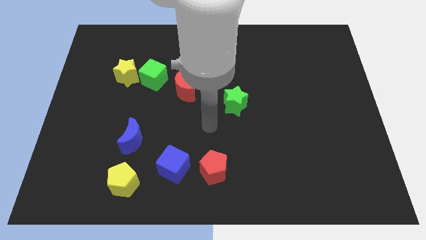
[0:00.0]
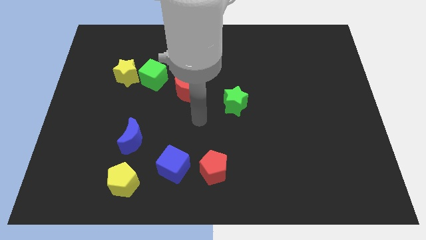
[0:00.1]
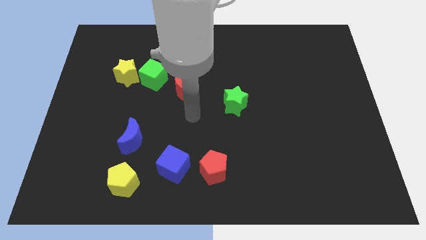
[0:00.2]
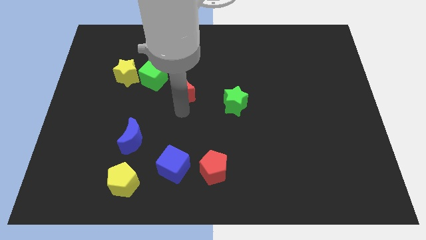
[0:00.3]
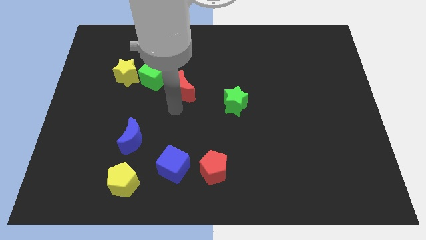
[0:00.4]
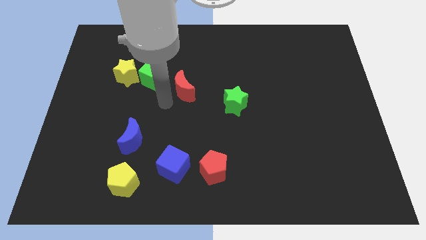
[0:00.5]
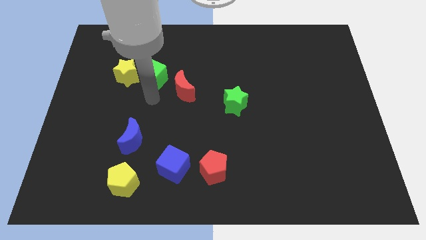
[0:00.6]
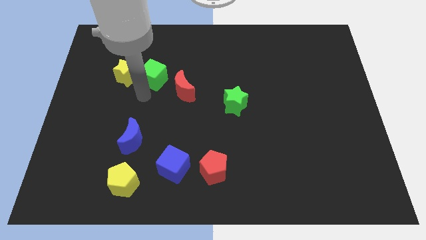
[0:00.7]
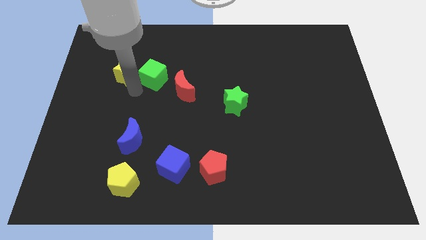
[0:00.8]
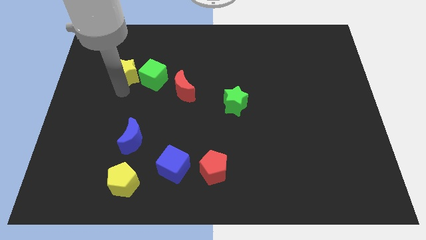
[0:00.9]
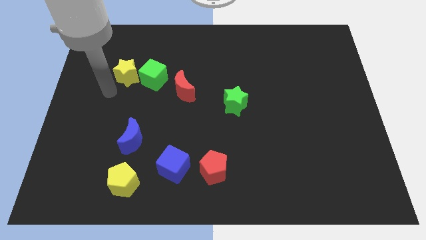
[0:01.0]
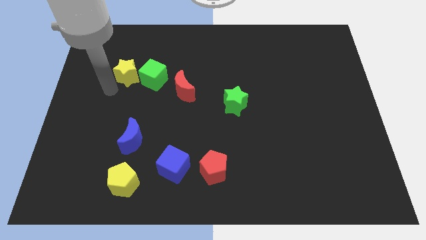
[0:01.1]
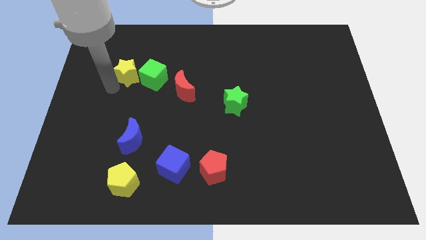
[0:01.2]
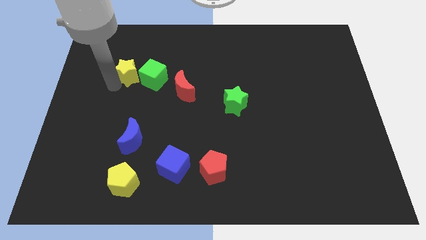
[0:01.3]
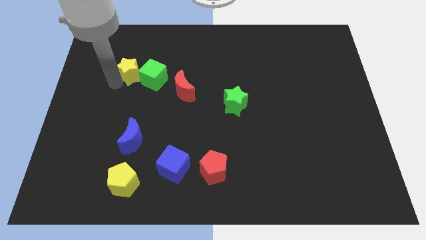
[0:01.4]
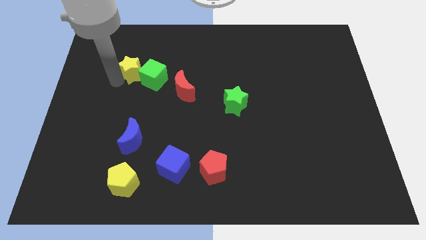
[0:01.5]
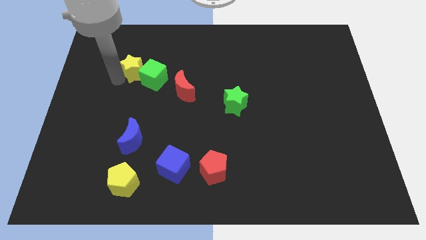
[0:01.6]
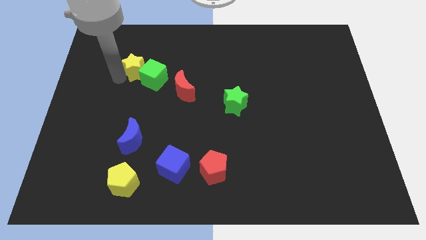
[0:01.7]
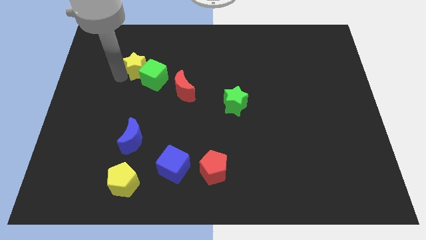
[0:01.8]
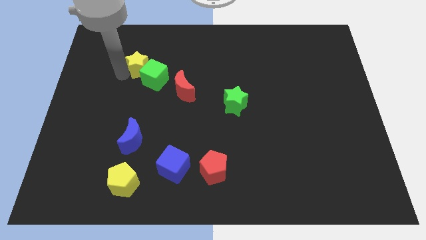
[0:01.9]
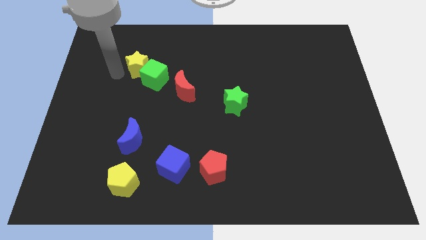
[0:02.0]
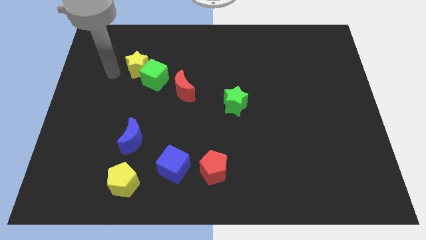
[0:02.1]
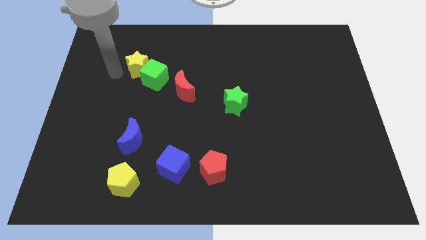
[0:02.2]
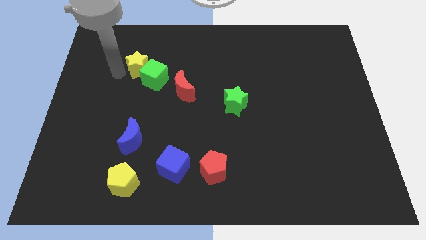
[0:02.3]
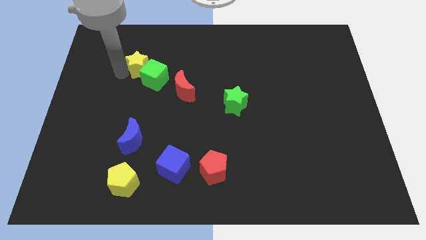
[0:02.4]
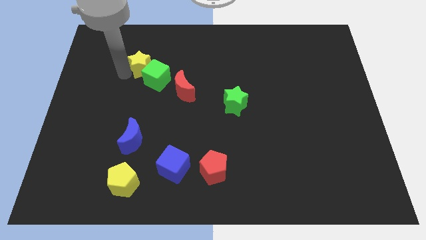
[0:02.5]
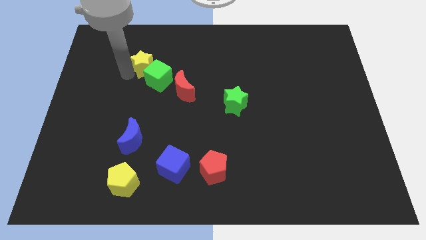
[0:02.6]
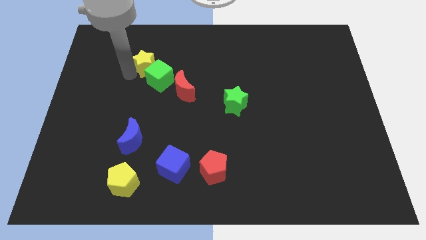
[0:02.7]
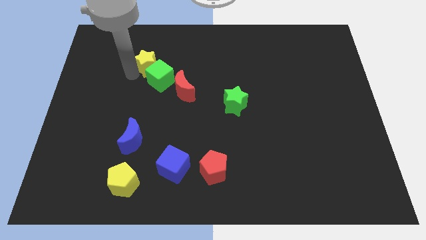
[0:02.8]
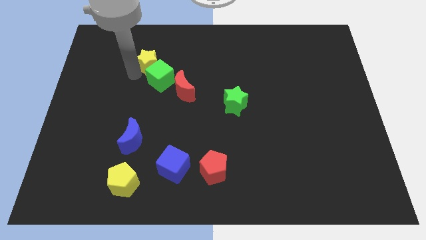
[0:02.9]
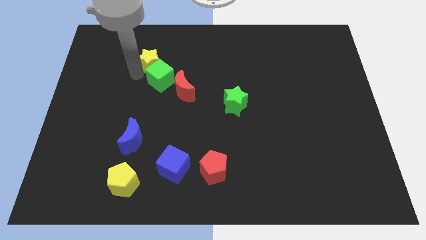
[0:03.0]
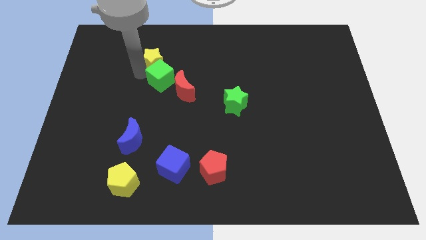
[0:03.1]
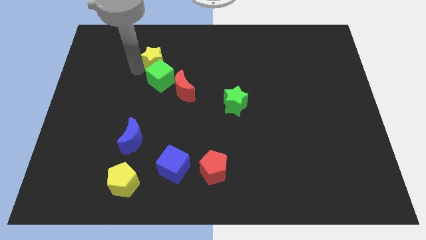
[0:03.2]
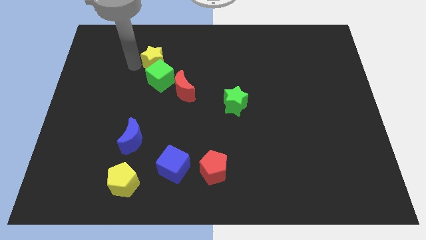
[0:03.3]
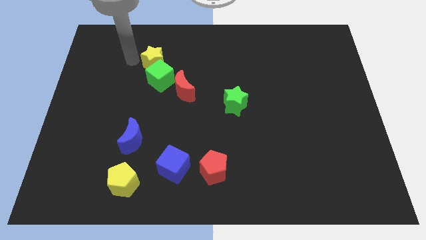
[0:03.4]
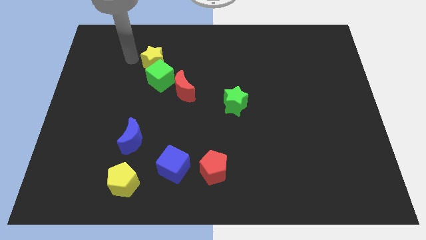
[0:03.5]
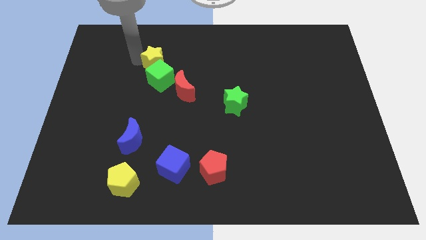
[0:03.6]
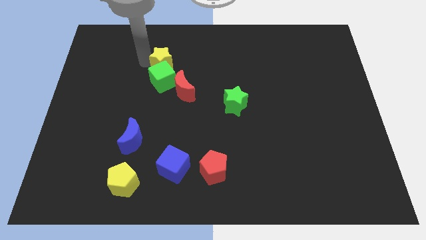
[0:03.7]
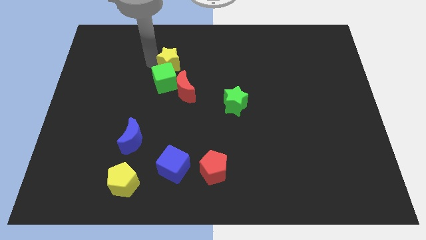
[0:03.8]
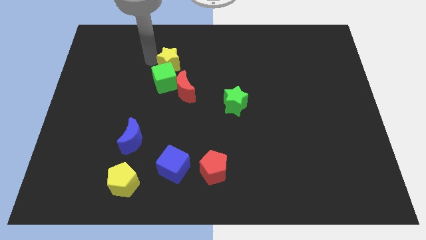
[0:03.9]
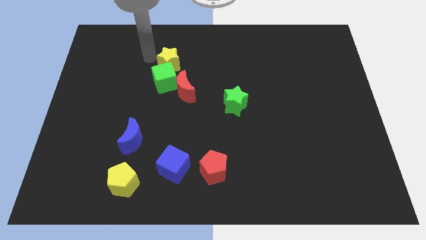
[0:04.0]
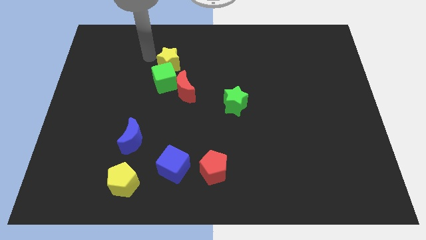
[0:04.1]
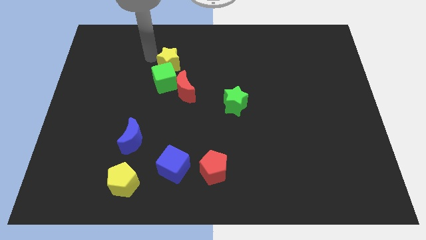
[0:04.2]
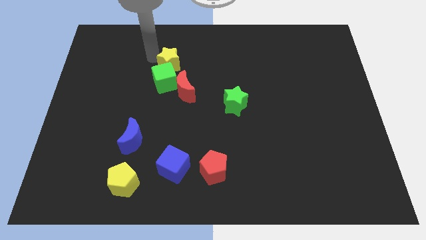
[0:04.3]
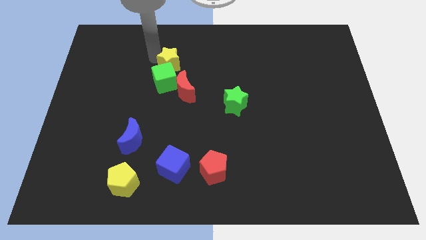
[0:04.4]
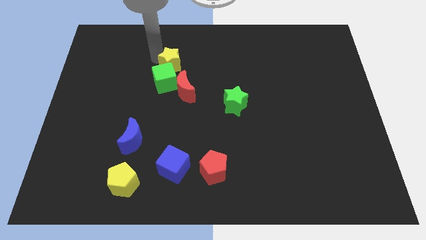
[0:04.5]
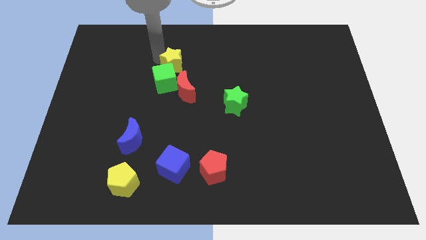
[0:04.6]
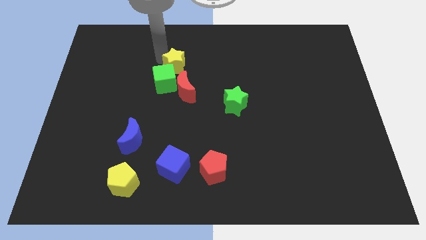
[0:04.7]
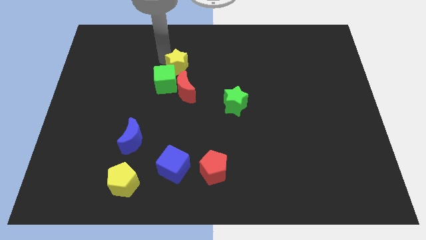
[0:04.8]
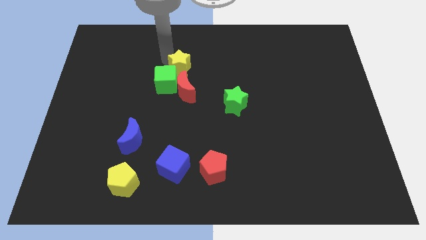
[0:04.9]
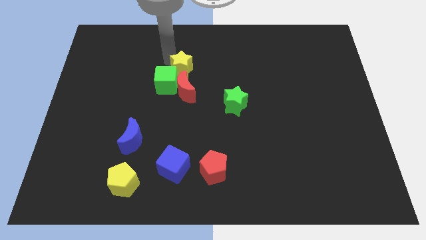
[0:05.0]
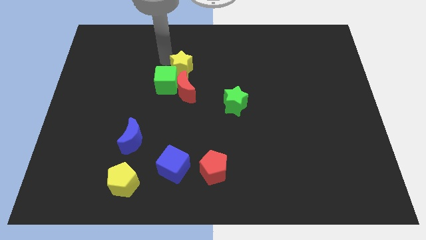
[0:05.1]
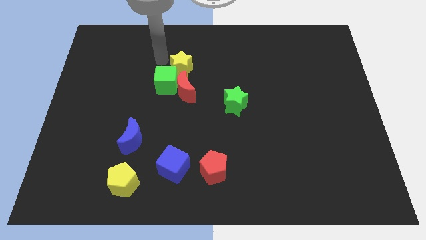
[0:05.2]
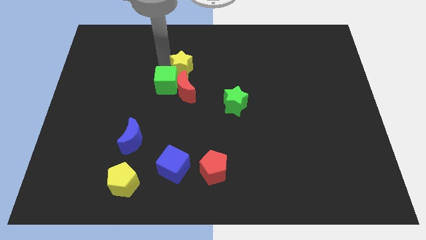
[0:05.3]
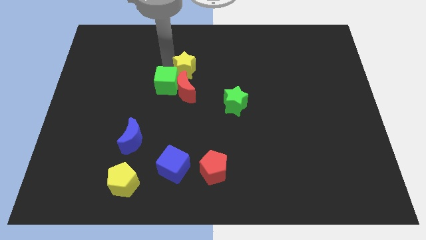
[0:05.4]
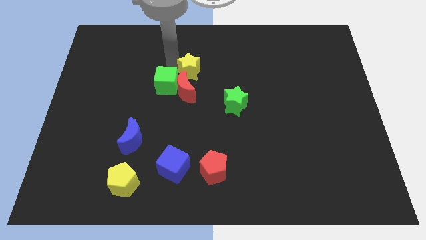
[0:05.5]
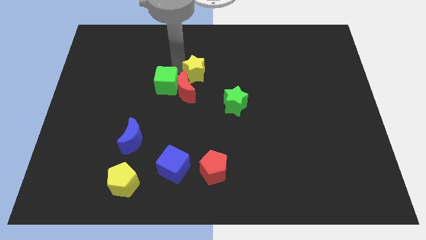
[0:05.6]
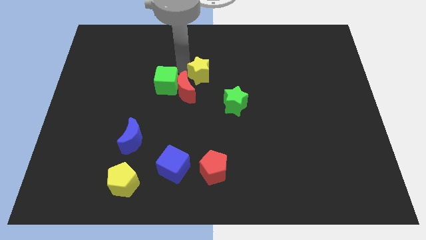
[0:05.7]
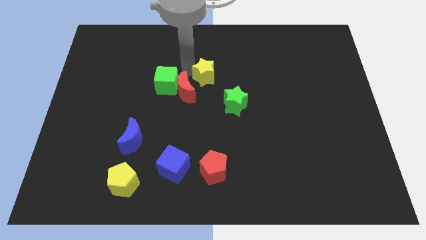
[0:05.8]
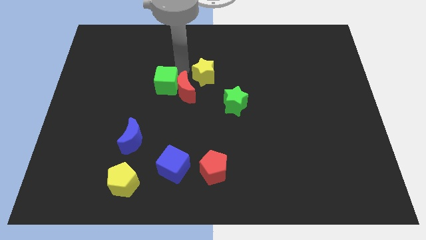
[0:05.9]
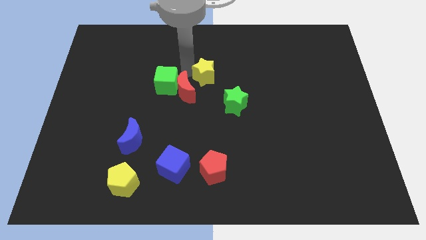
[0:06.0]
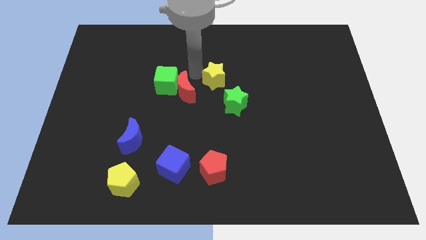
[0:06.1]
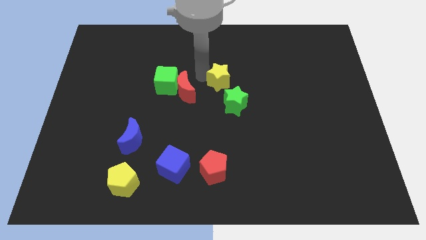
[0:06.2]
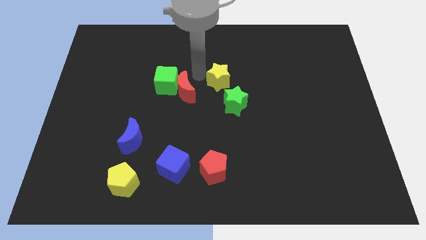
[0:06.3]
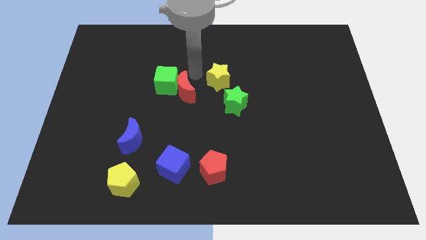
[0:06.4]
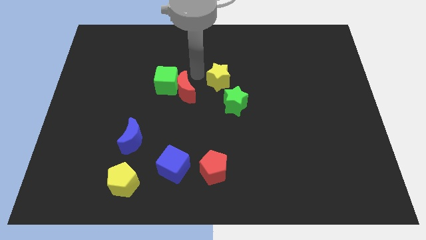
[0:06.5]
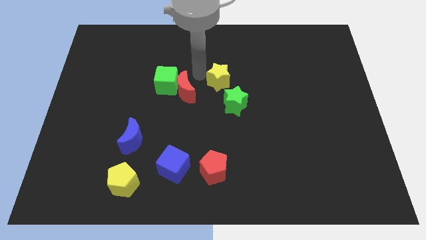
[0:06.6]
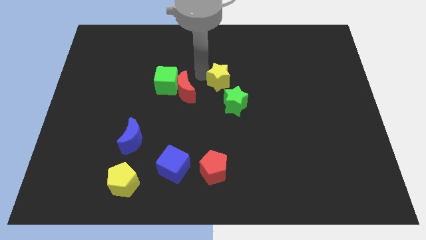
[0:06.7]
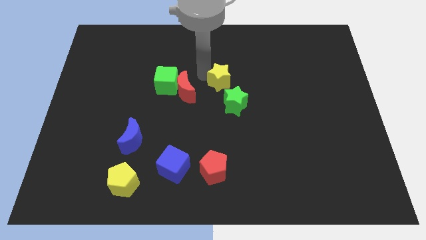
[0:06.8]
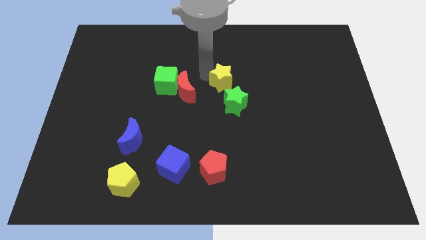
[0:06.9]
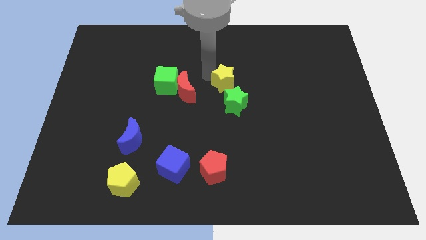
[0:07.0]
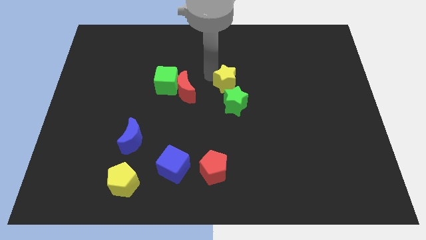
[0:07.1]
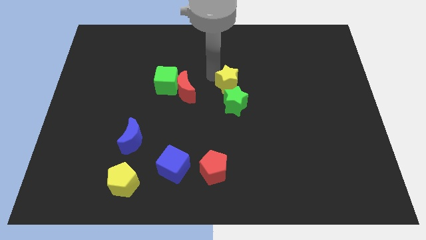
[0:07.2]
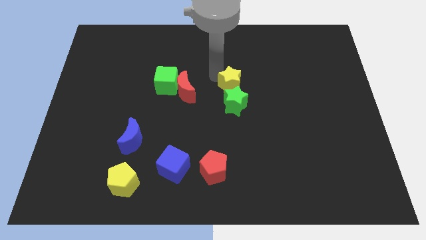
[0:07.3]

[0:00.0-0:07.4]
push the yellow star diagonally up and to the right of the green star
